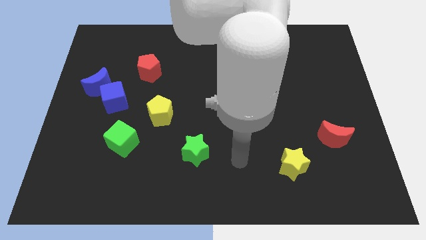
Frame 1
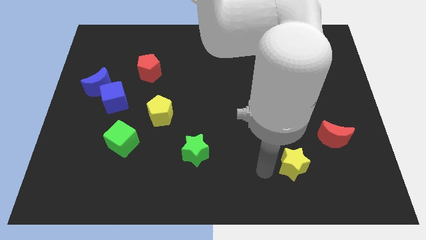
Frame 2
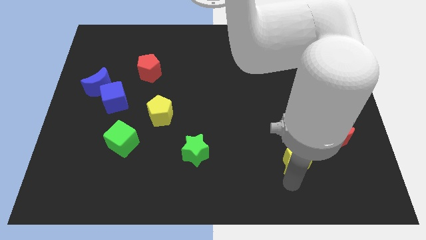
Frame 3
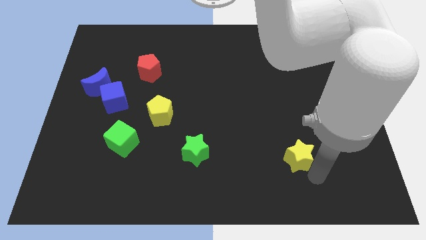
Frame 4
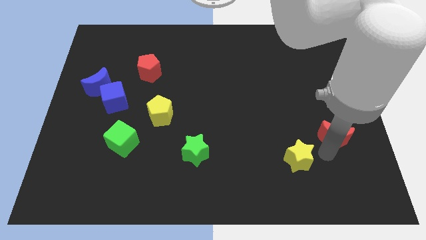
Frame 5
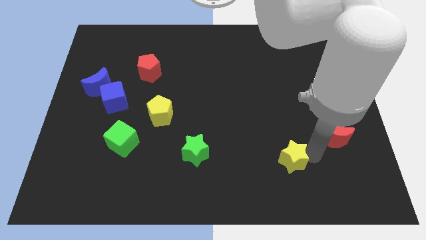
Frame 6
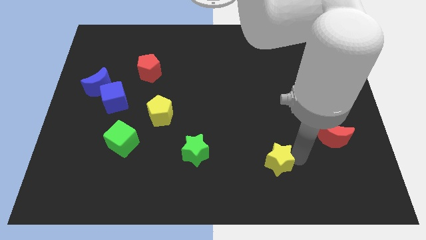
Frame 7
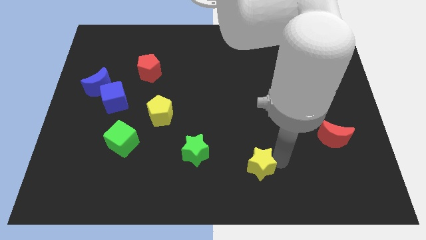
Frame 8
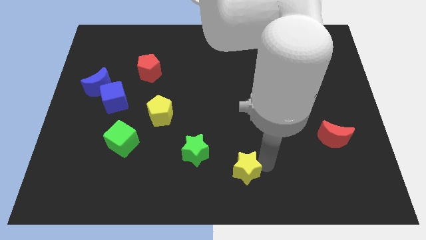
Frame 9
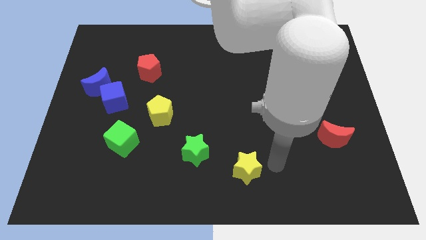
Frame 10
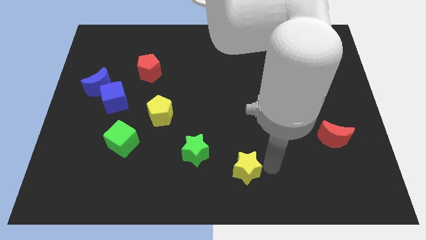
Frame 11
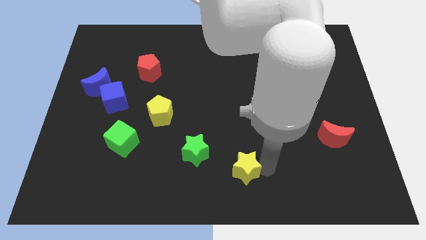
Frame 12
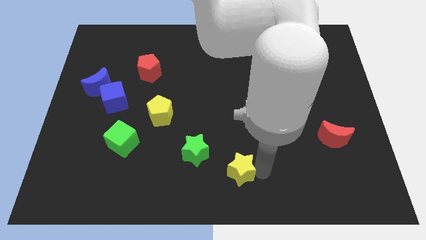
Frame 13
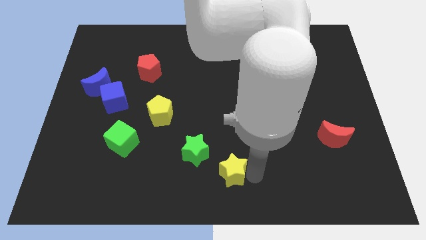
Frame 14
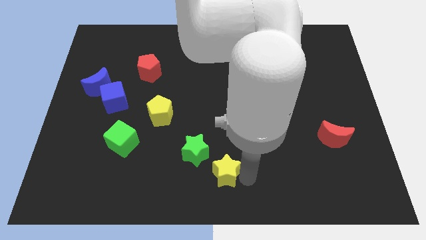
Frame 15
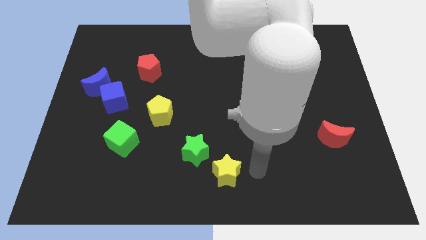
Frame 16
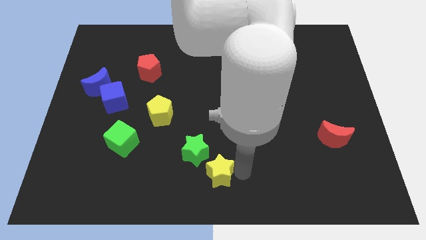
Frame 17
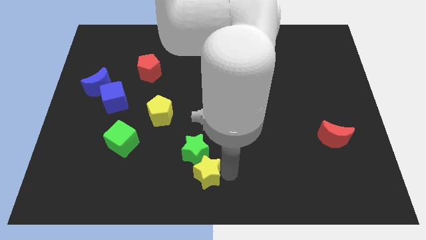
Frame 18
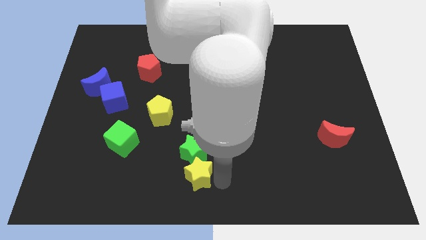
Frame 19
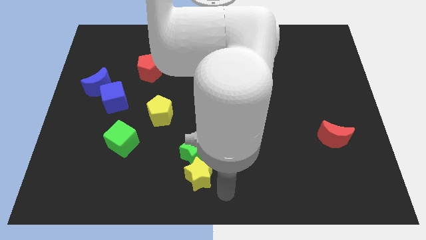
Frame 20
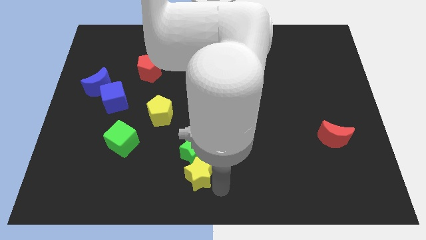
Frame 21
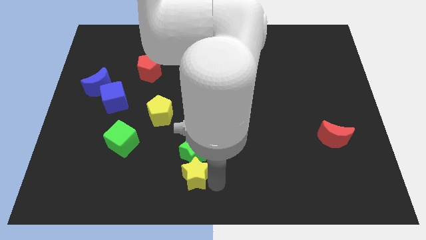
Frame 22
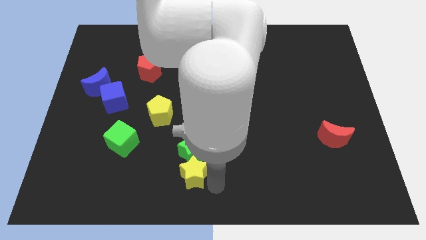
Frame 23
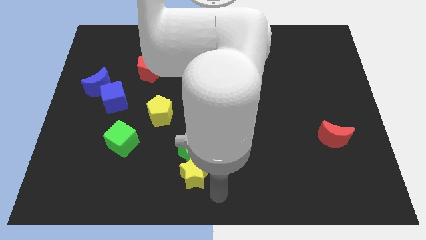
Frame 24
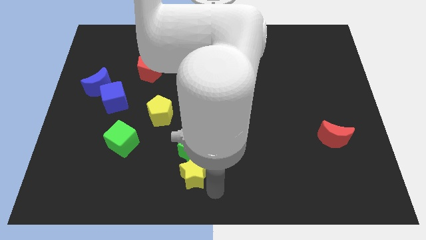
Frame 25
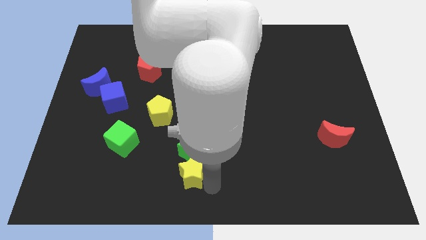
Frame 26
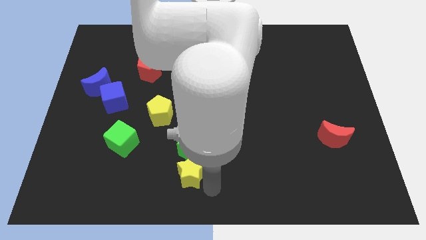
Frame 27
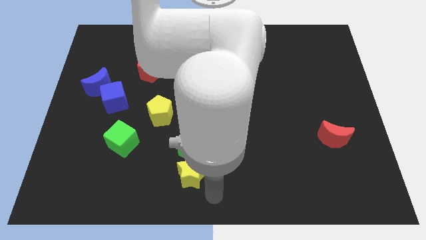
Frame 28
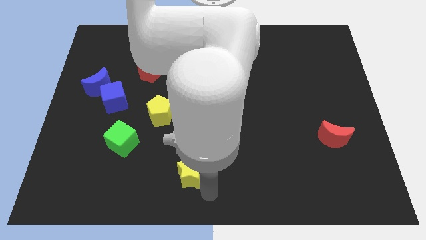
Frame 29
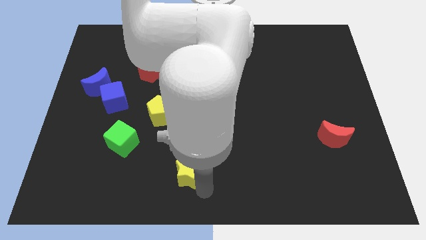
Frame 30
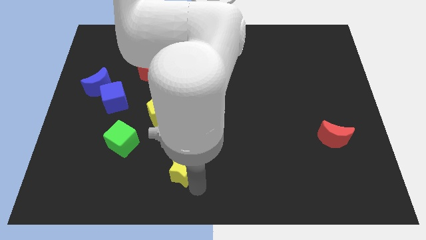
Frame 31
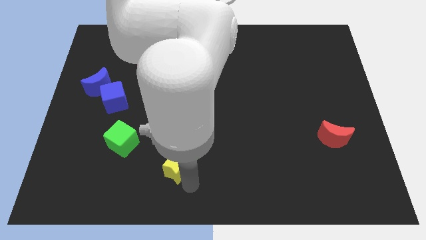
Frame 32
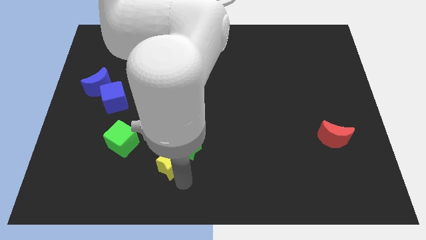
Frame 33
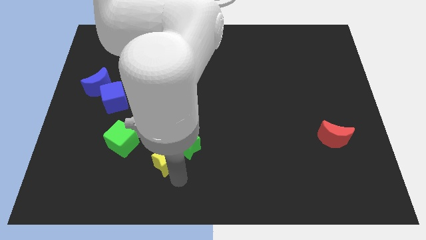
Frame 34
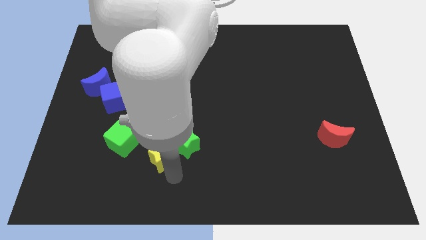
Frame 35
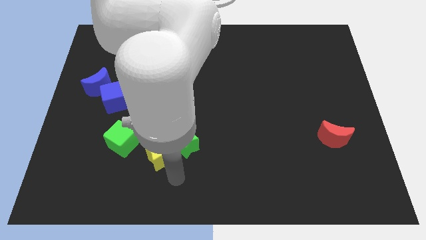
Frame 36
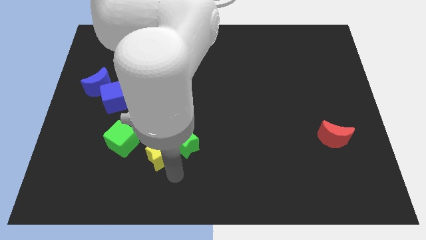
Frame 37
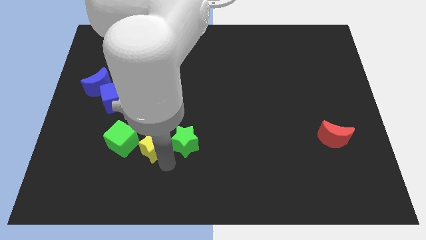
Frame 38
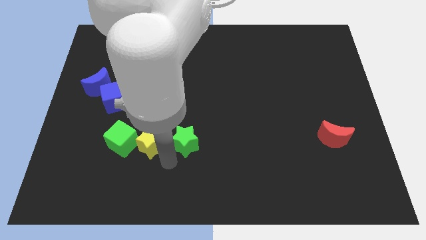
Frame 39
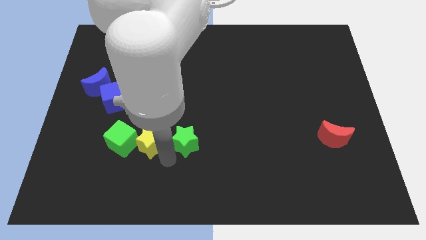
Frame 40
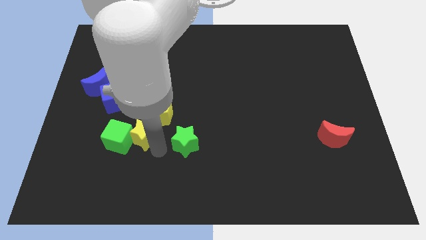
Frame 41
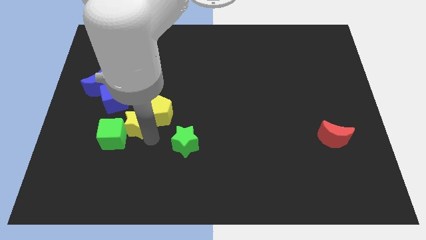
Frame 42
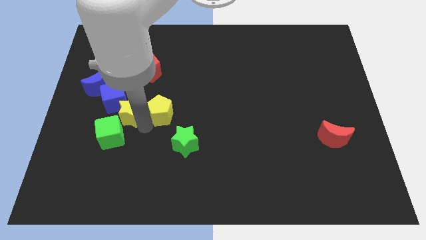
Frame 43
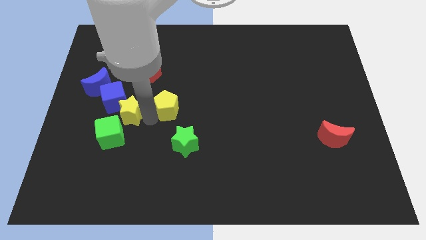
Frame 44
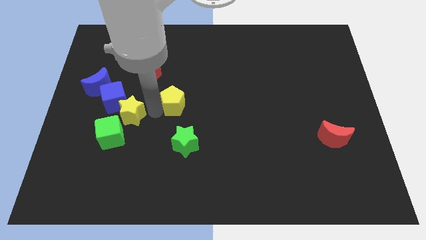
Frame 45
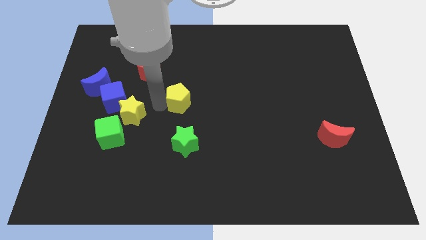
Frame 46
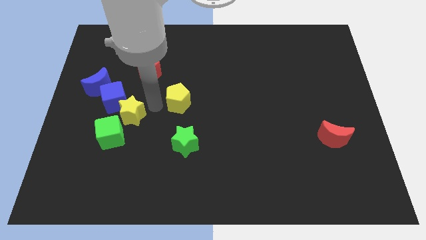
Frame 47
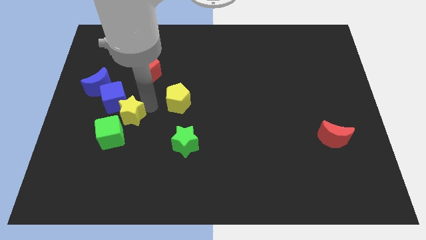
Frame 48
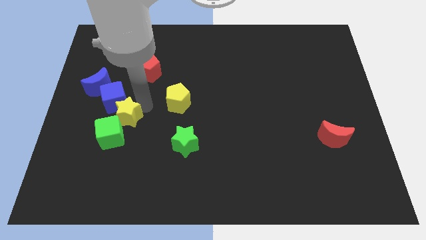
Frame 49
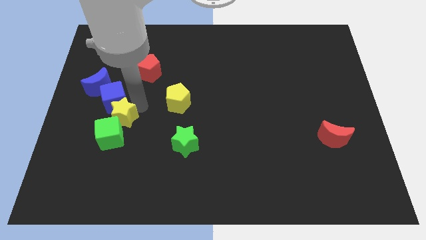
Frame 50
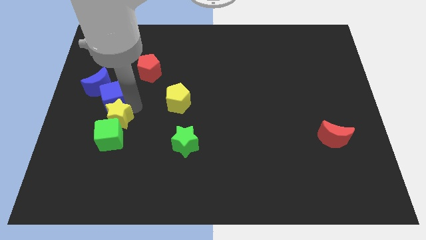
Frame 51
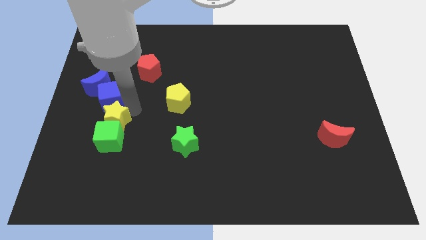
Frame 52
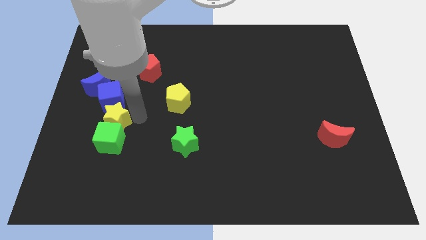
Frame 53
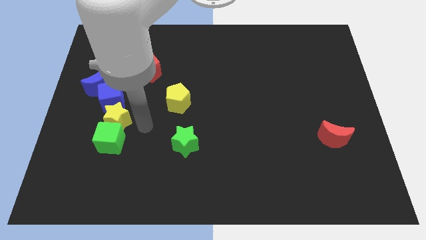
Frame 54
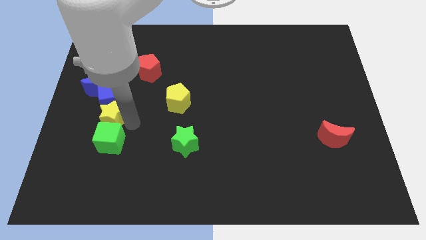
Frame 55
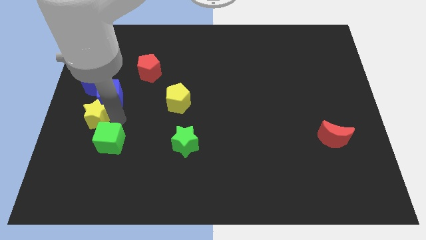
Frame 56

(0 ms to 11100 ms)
slide the yellow star to the left side of the board

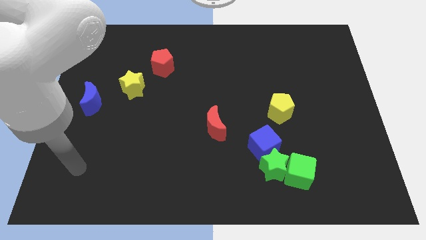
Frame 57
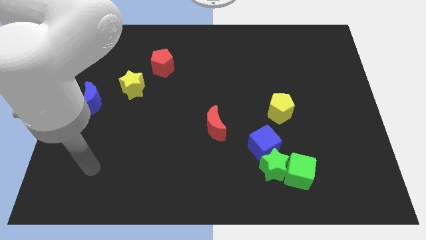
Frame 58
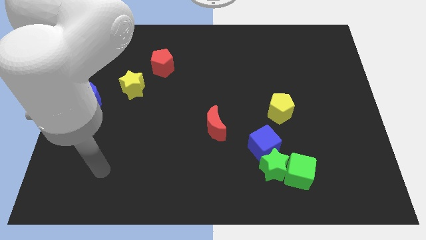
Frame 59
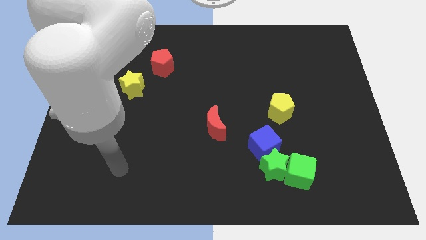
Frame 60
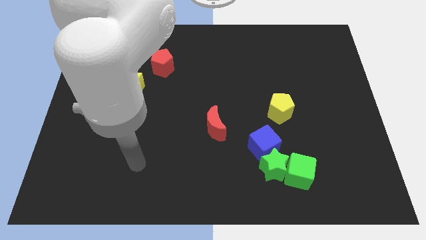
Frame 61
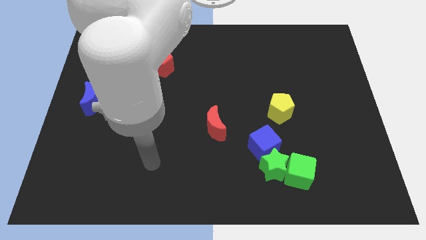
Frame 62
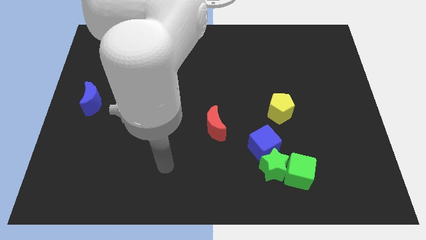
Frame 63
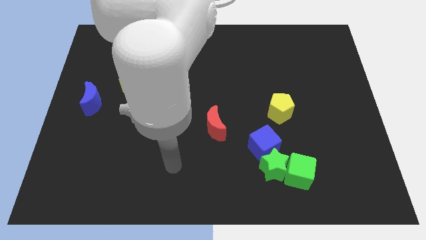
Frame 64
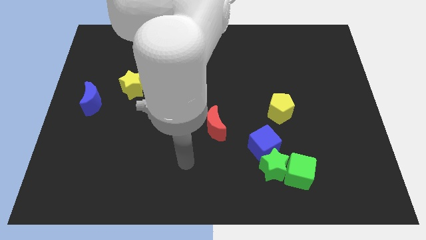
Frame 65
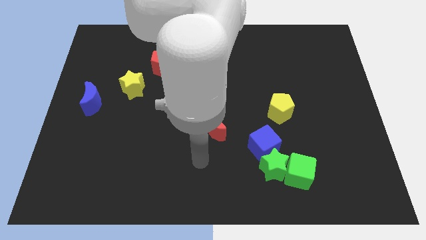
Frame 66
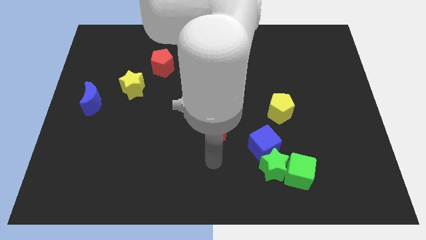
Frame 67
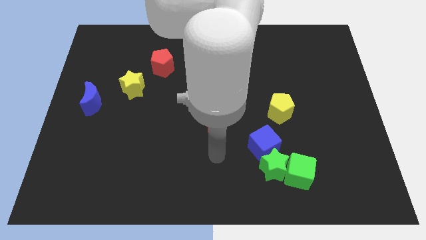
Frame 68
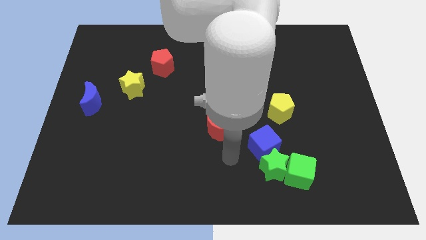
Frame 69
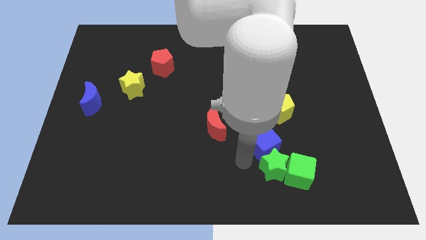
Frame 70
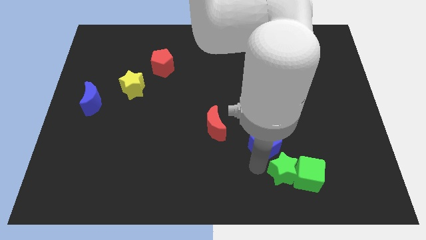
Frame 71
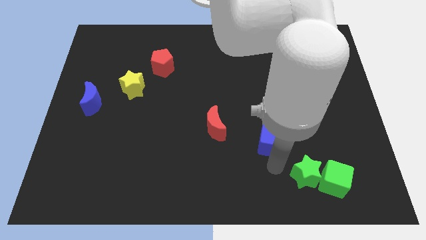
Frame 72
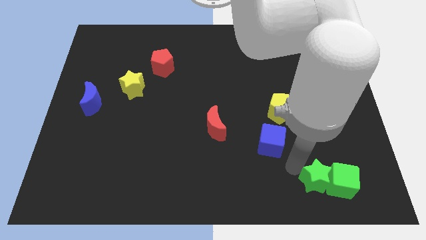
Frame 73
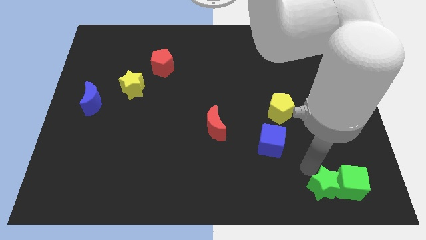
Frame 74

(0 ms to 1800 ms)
move the green cube to the bottom right corner
